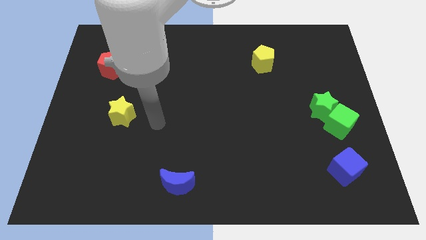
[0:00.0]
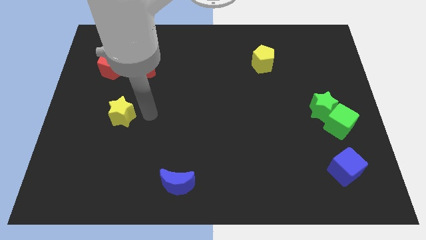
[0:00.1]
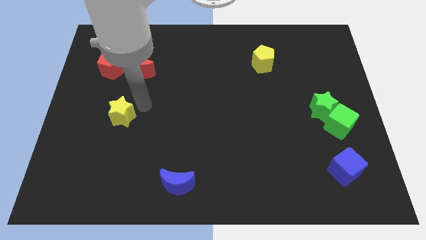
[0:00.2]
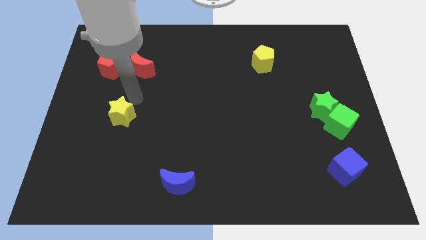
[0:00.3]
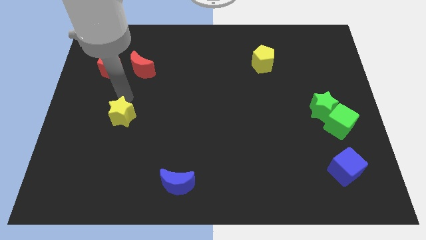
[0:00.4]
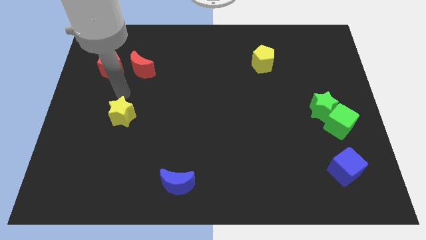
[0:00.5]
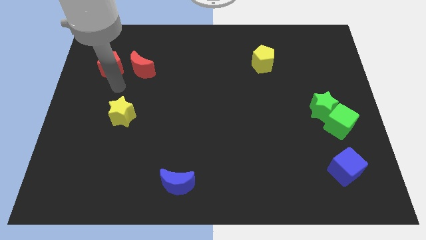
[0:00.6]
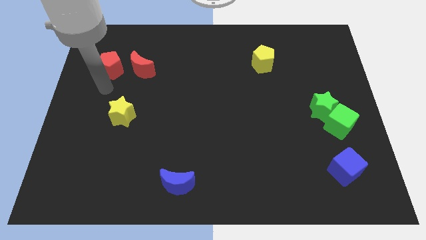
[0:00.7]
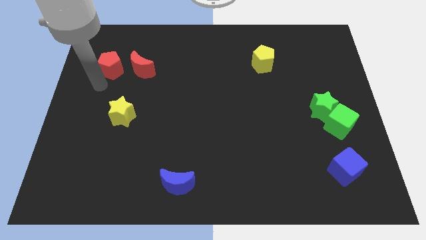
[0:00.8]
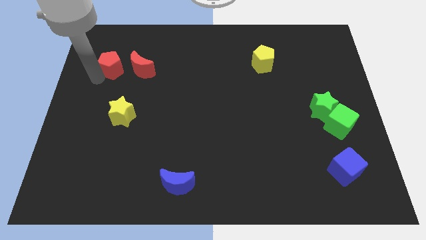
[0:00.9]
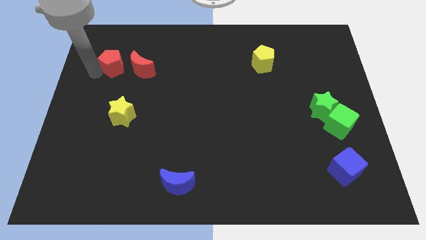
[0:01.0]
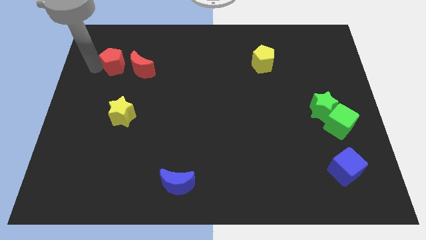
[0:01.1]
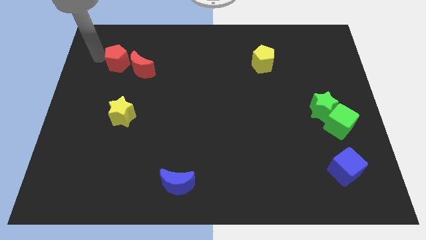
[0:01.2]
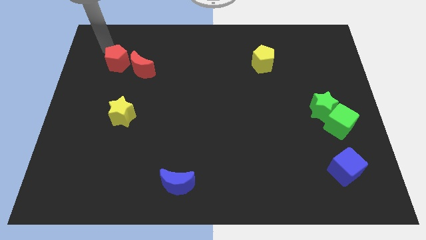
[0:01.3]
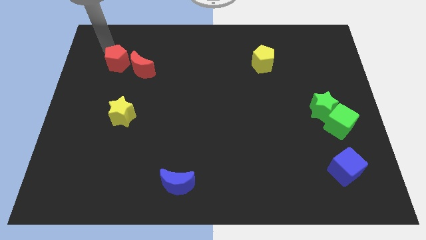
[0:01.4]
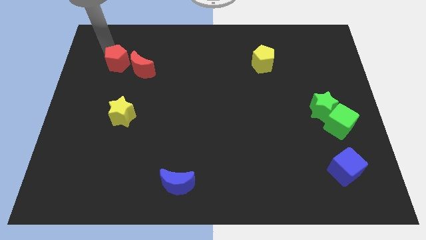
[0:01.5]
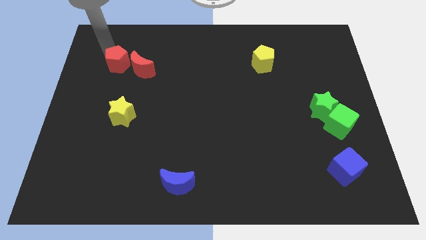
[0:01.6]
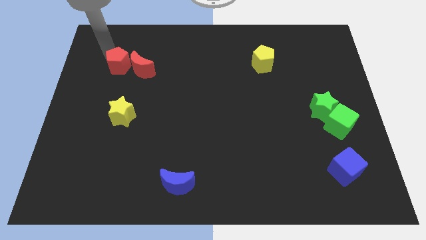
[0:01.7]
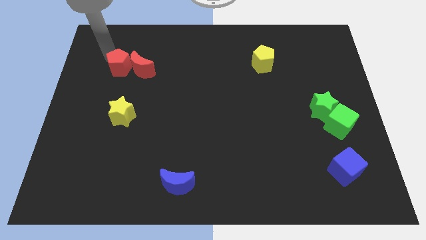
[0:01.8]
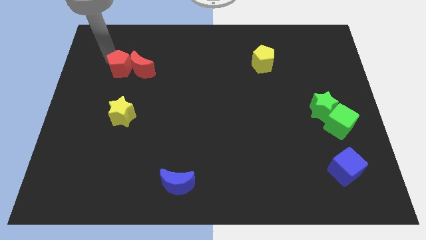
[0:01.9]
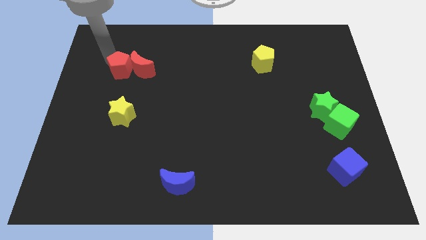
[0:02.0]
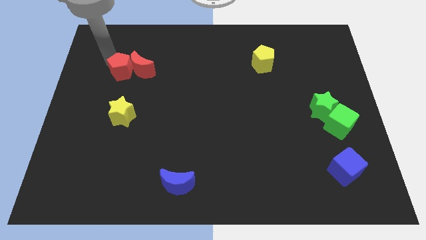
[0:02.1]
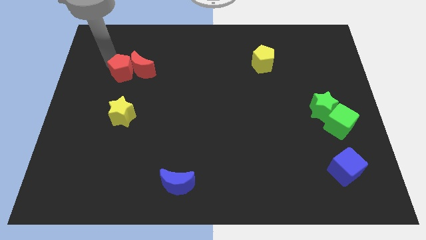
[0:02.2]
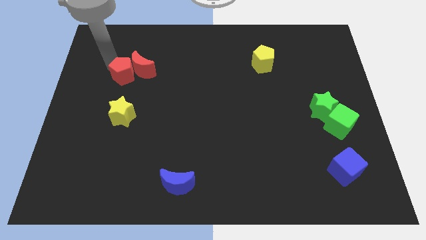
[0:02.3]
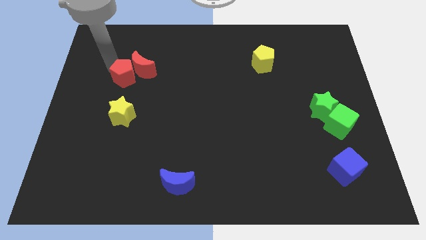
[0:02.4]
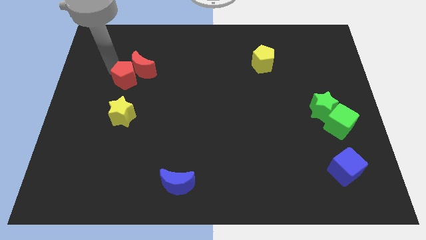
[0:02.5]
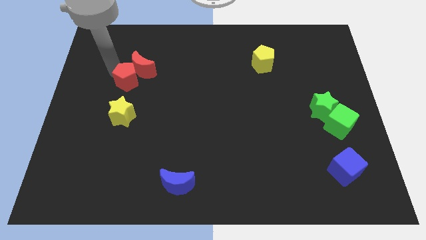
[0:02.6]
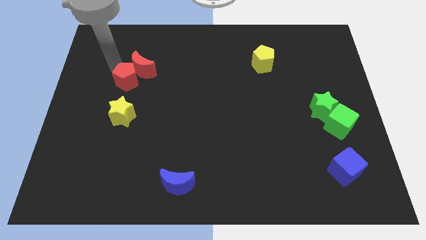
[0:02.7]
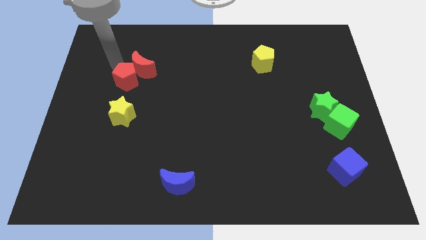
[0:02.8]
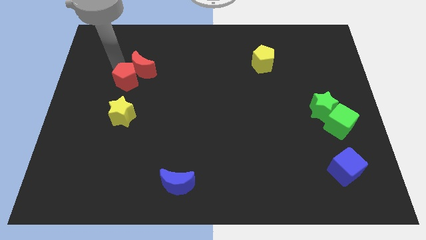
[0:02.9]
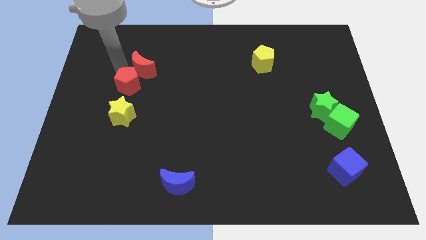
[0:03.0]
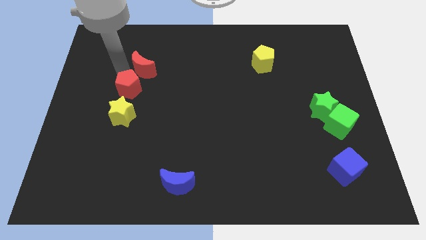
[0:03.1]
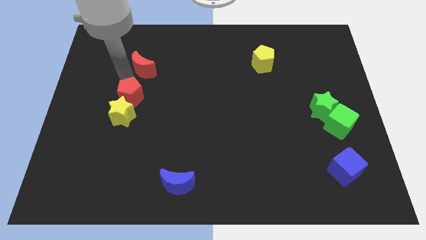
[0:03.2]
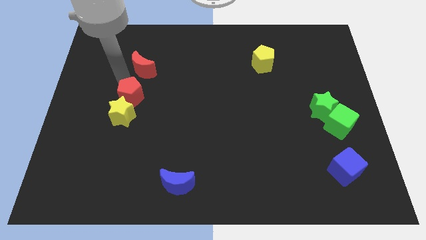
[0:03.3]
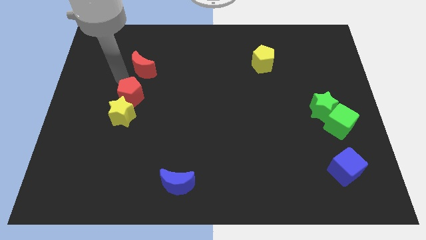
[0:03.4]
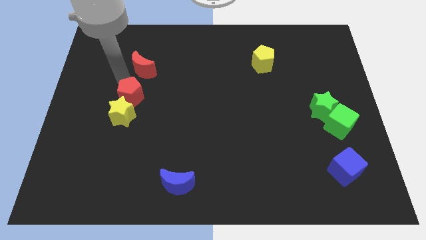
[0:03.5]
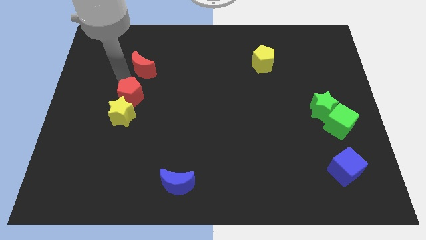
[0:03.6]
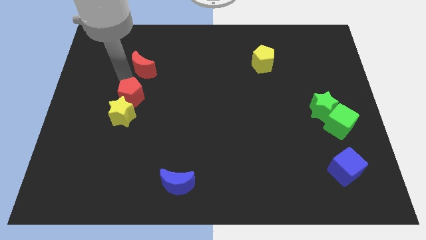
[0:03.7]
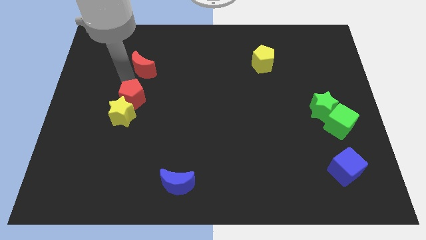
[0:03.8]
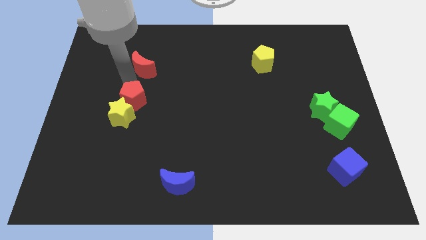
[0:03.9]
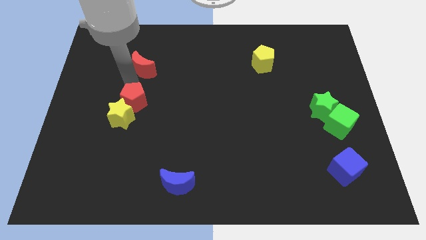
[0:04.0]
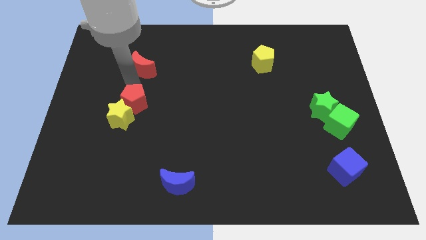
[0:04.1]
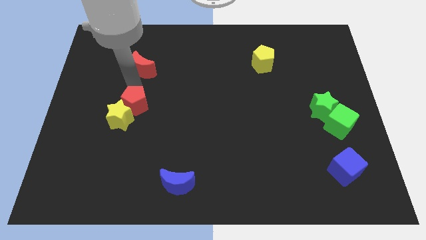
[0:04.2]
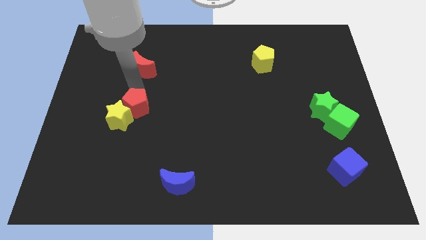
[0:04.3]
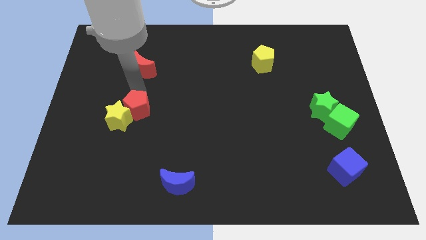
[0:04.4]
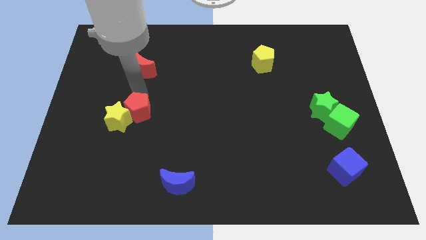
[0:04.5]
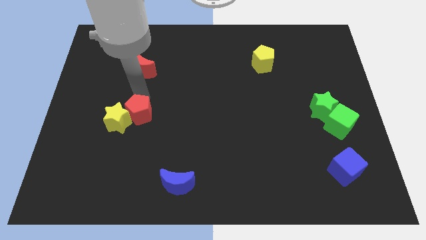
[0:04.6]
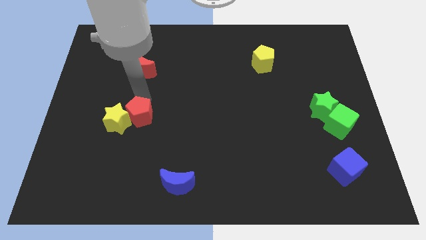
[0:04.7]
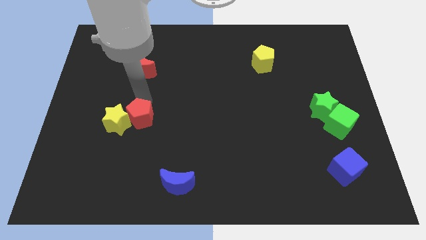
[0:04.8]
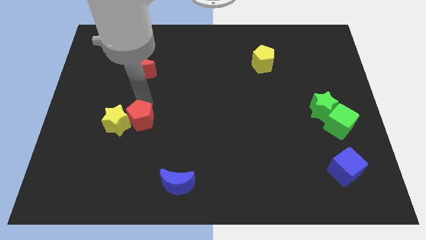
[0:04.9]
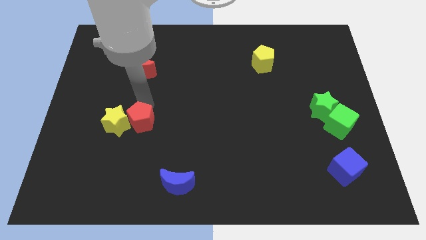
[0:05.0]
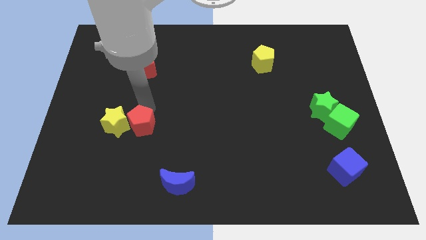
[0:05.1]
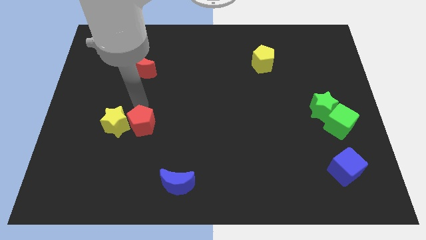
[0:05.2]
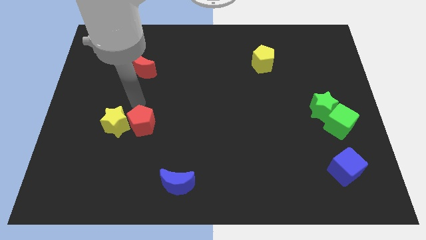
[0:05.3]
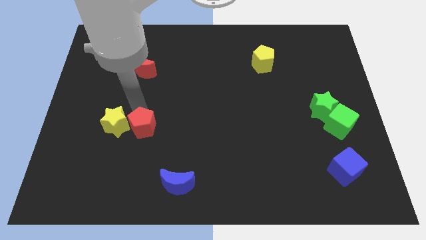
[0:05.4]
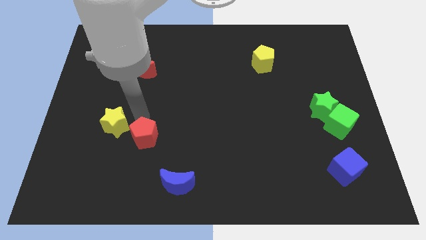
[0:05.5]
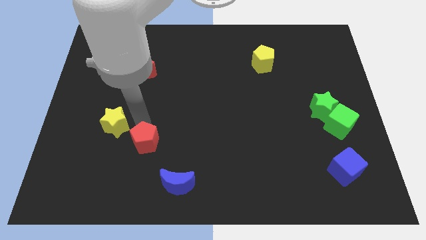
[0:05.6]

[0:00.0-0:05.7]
move the red pentagon to the top left of the blue moon
